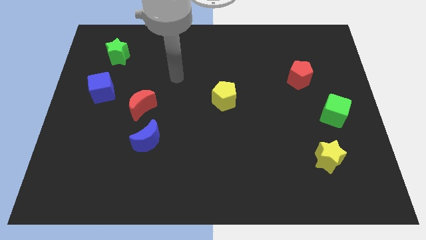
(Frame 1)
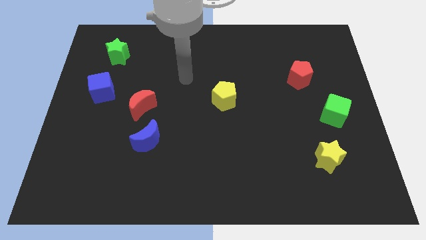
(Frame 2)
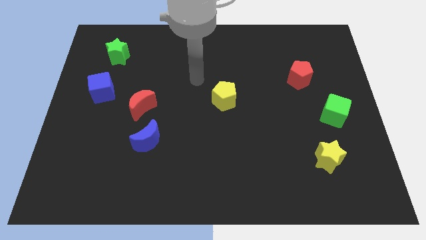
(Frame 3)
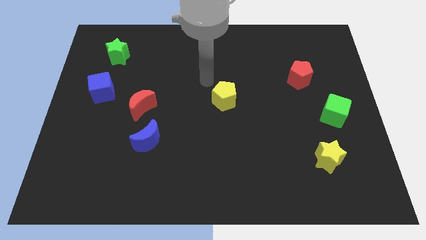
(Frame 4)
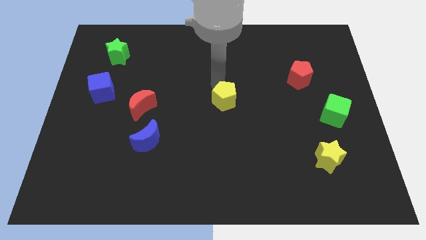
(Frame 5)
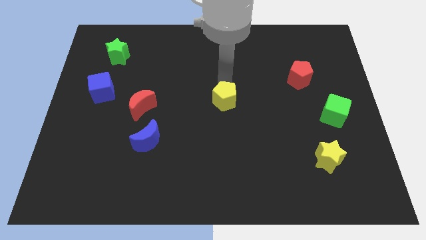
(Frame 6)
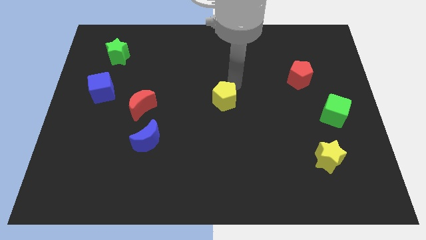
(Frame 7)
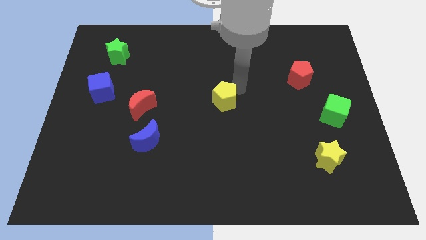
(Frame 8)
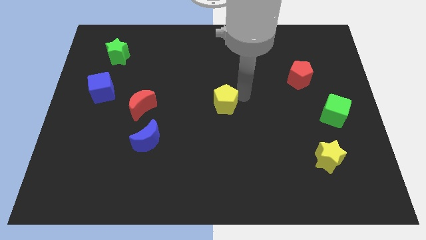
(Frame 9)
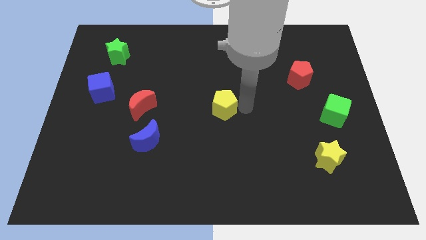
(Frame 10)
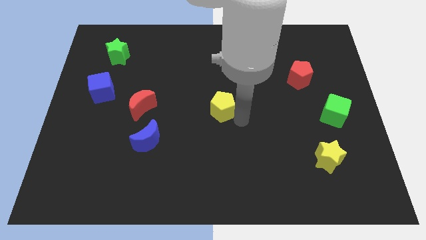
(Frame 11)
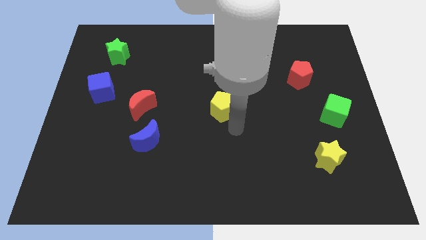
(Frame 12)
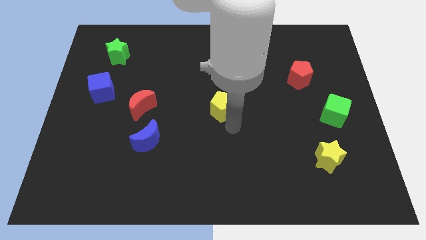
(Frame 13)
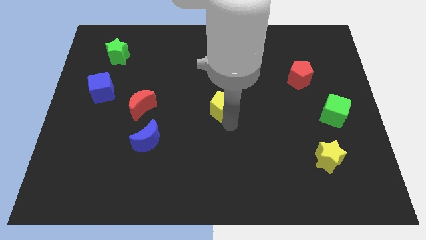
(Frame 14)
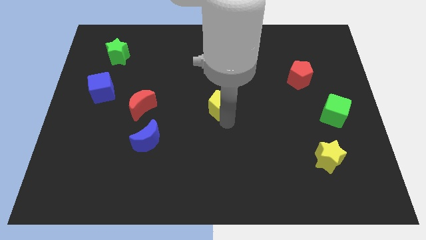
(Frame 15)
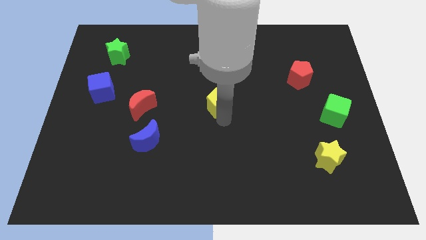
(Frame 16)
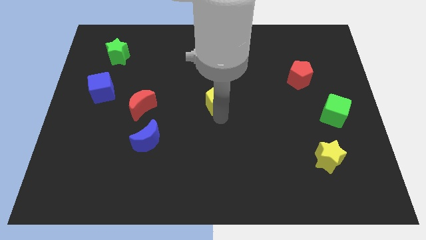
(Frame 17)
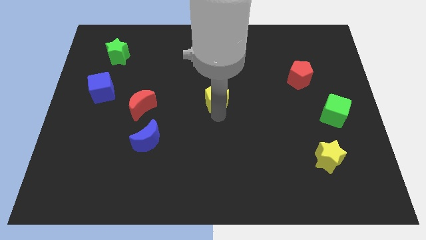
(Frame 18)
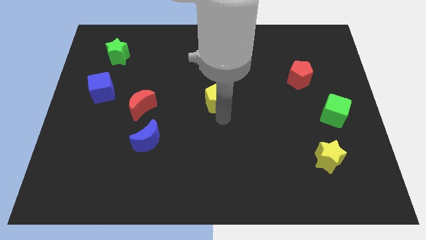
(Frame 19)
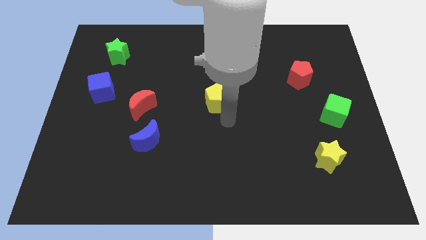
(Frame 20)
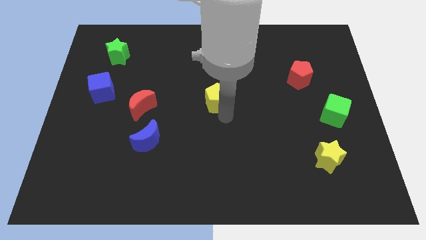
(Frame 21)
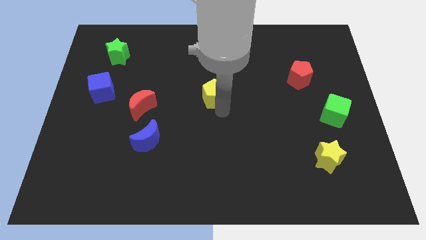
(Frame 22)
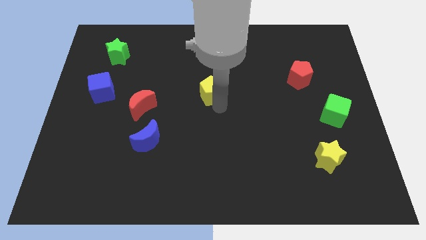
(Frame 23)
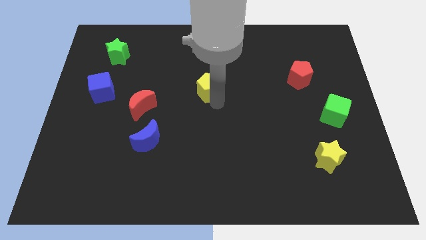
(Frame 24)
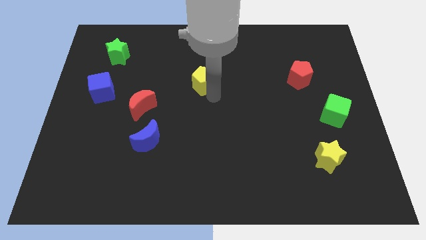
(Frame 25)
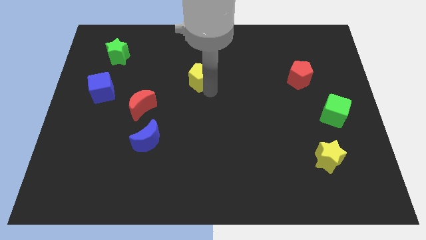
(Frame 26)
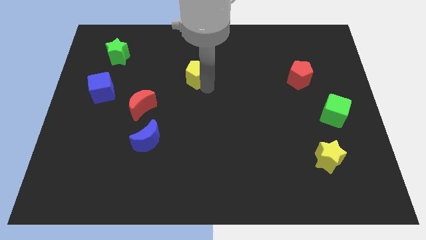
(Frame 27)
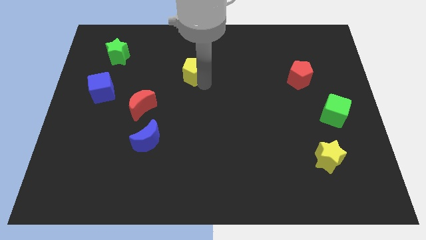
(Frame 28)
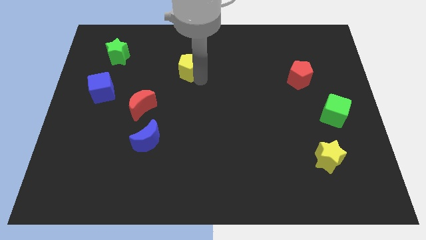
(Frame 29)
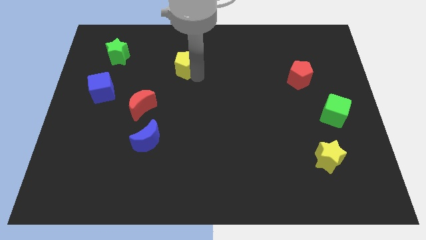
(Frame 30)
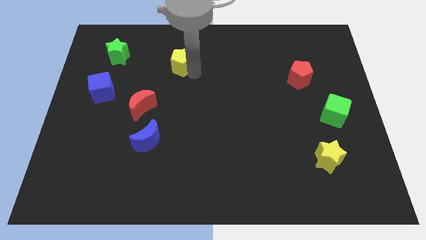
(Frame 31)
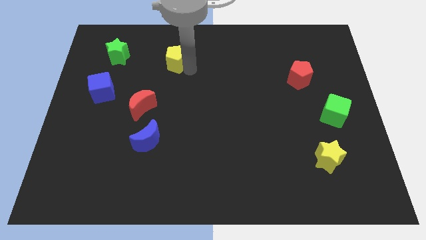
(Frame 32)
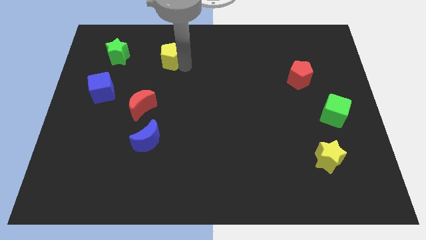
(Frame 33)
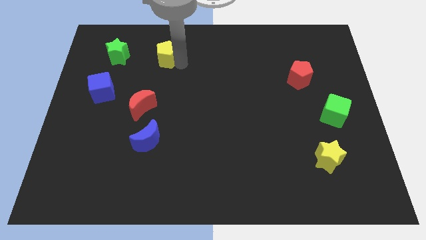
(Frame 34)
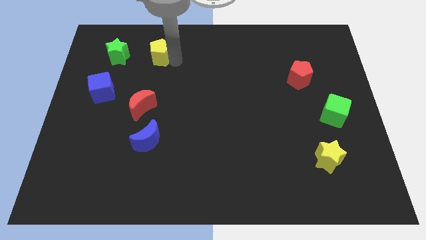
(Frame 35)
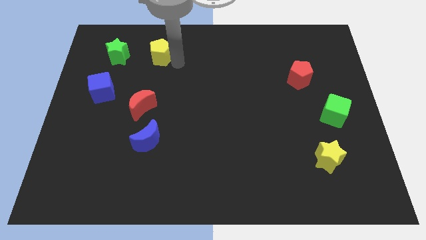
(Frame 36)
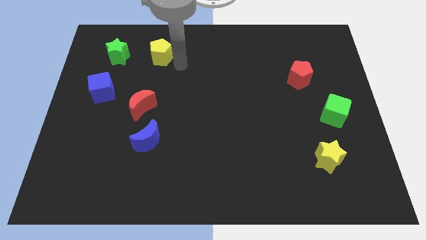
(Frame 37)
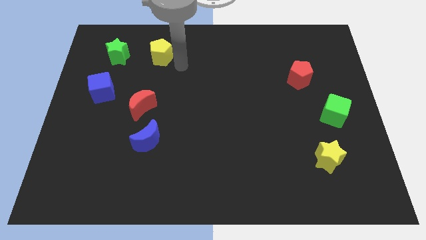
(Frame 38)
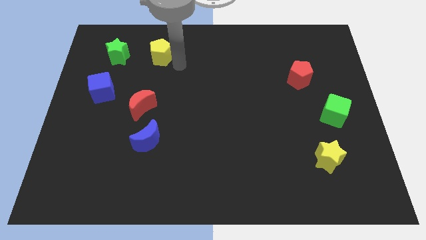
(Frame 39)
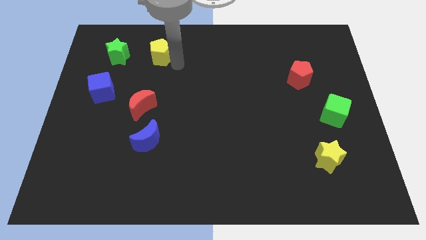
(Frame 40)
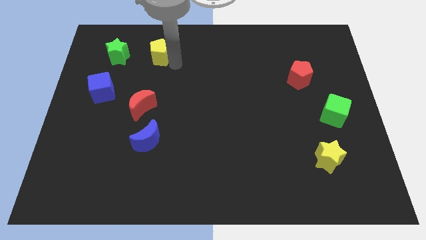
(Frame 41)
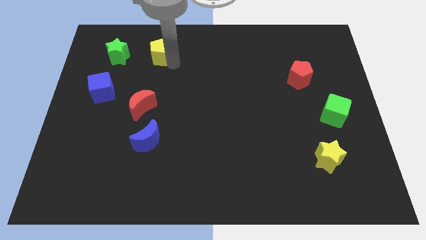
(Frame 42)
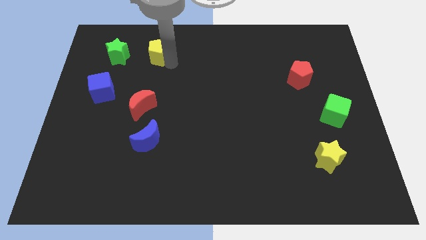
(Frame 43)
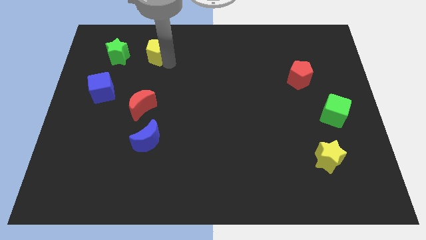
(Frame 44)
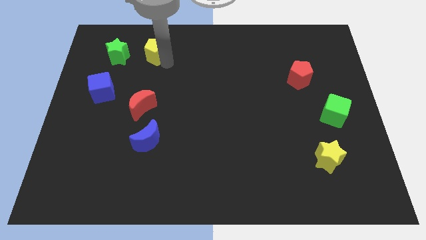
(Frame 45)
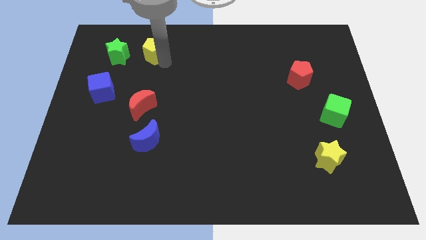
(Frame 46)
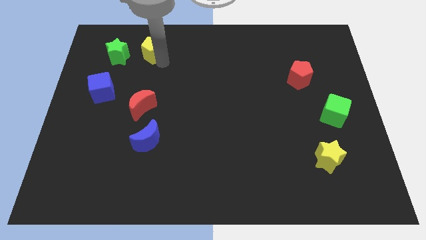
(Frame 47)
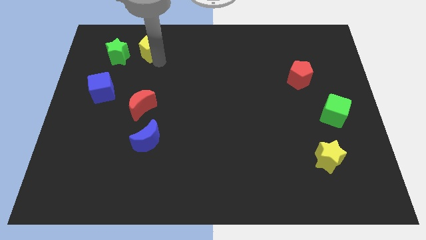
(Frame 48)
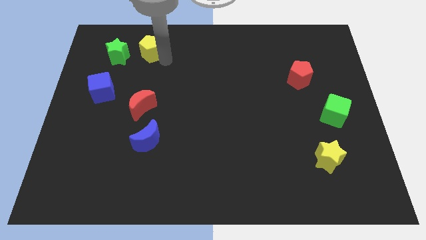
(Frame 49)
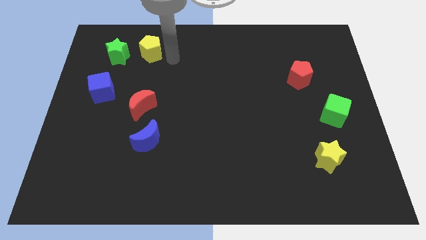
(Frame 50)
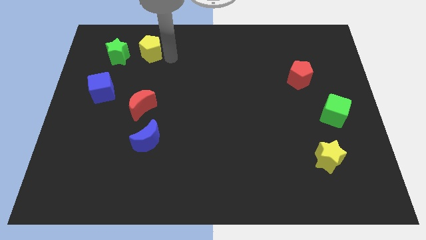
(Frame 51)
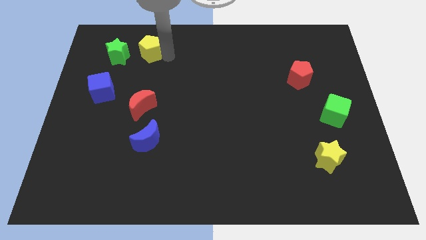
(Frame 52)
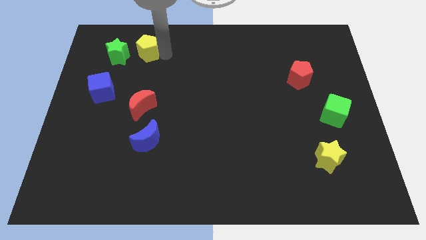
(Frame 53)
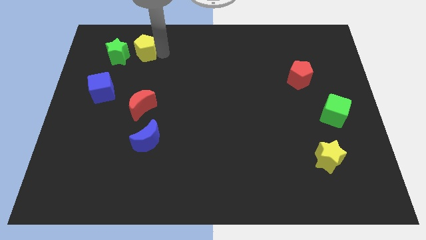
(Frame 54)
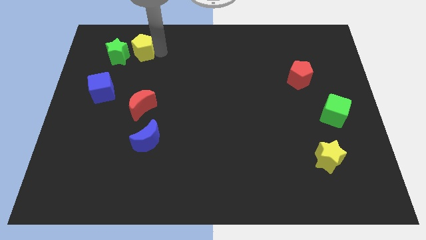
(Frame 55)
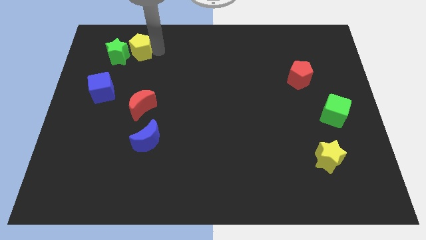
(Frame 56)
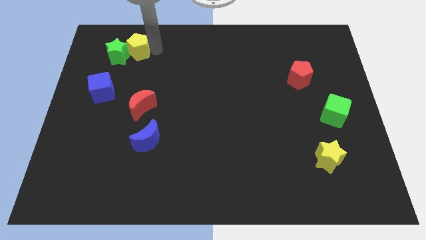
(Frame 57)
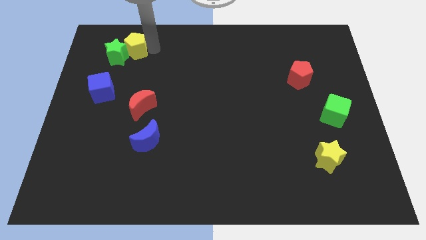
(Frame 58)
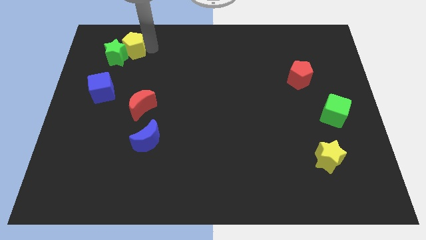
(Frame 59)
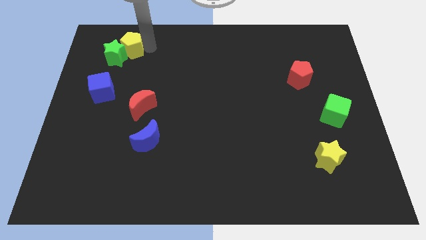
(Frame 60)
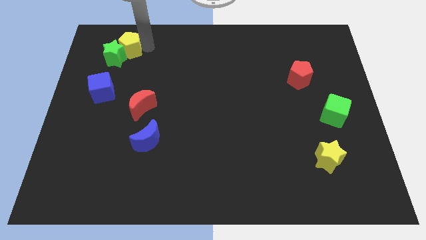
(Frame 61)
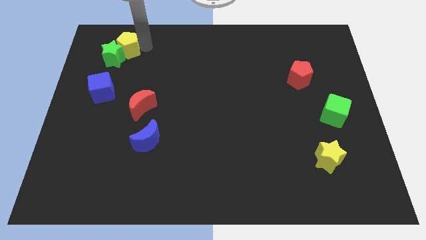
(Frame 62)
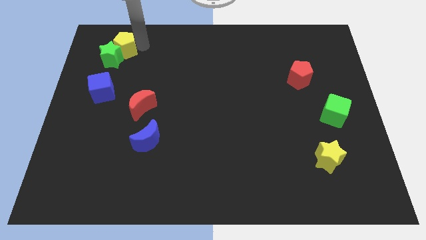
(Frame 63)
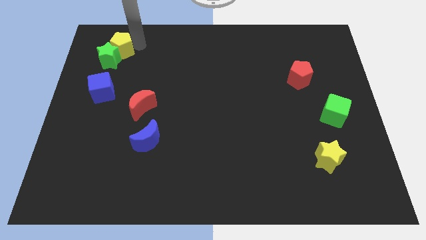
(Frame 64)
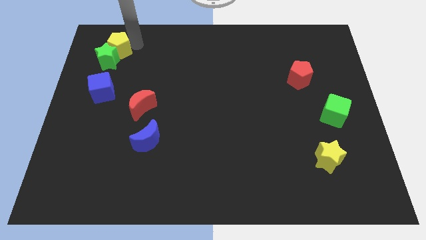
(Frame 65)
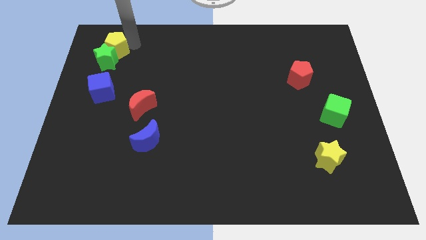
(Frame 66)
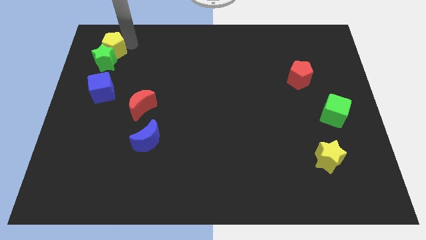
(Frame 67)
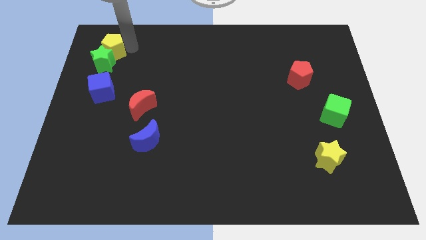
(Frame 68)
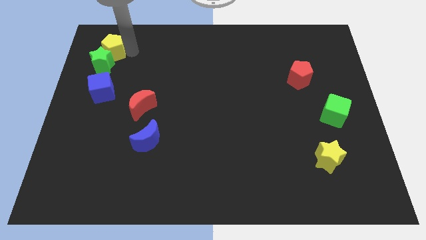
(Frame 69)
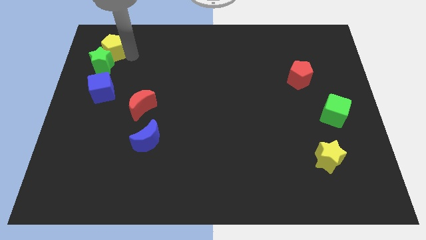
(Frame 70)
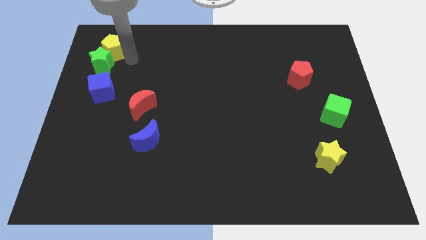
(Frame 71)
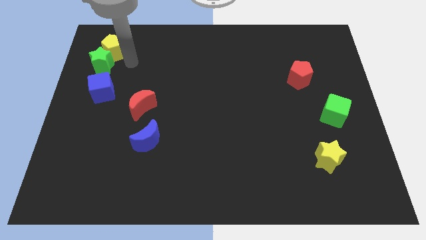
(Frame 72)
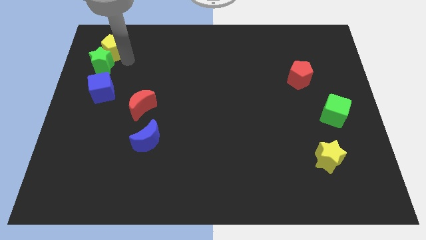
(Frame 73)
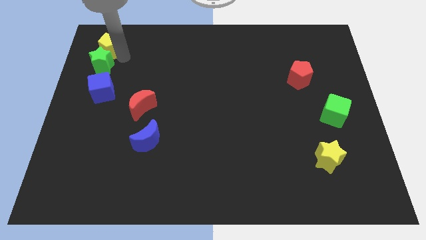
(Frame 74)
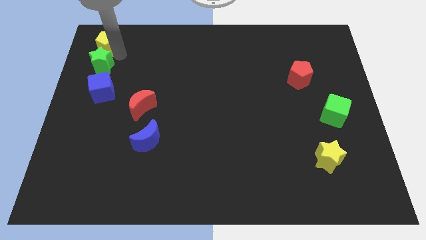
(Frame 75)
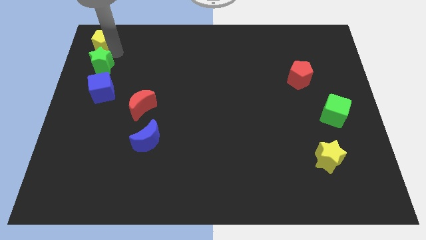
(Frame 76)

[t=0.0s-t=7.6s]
move the yellow pentagon to the top left corner
